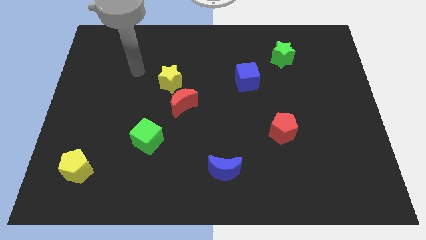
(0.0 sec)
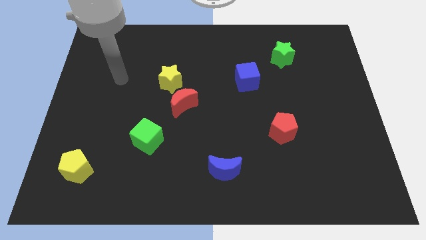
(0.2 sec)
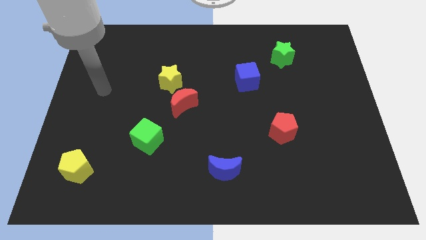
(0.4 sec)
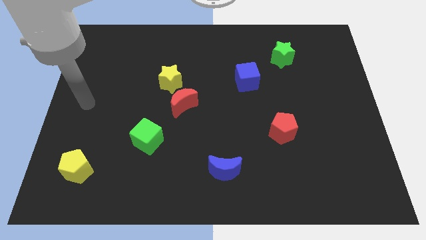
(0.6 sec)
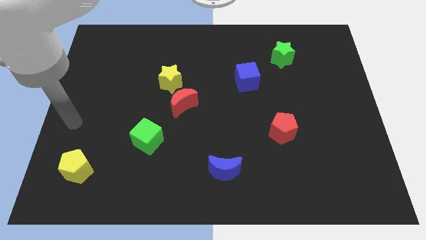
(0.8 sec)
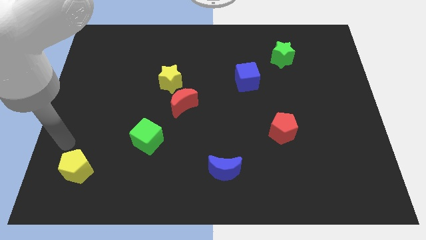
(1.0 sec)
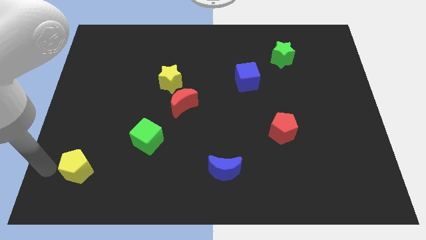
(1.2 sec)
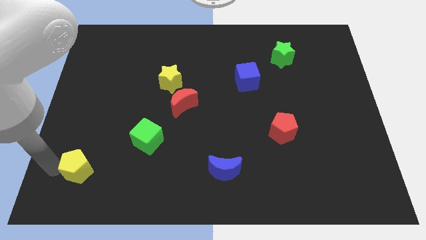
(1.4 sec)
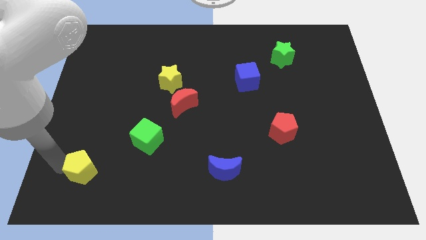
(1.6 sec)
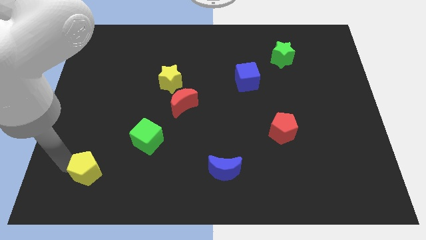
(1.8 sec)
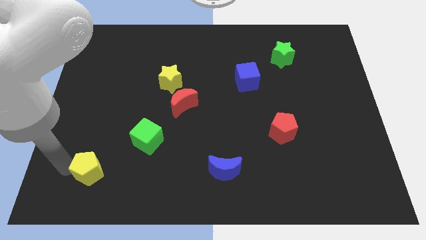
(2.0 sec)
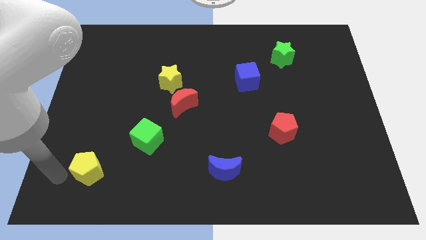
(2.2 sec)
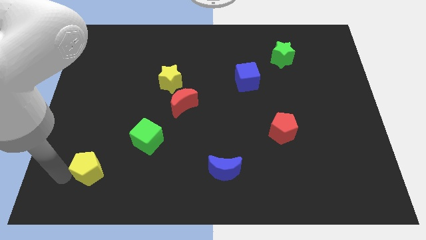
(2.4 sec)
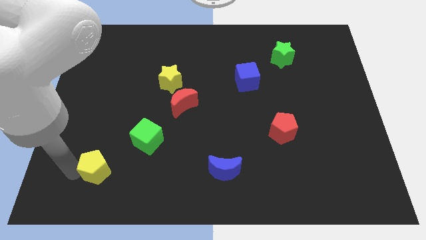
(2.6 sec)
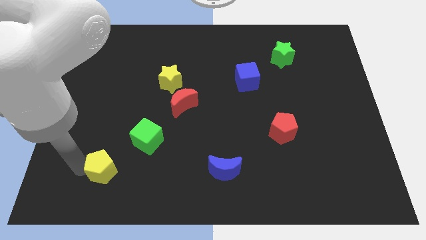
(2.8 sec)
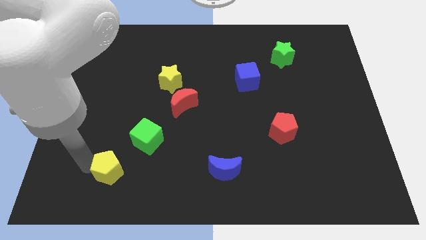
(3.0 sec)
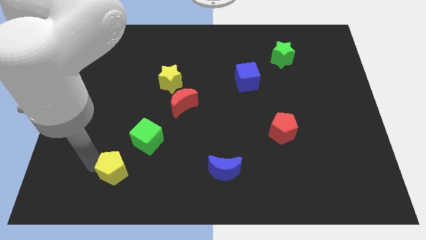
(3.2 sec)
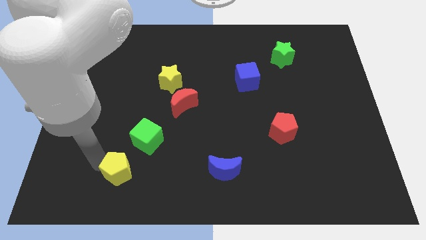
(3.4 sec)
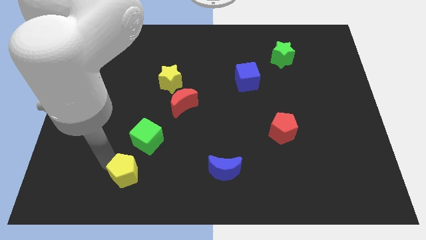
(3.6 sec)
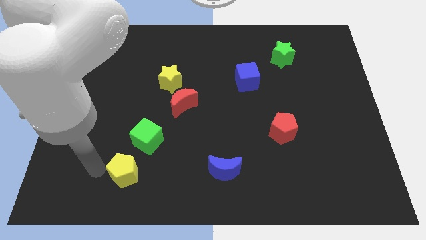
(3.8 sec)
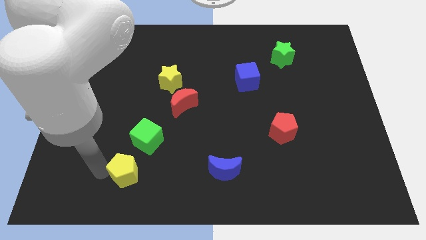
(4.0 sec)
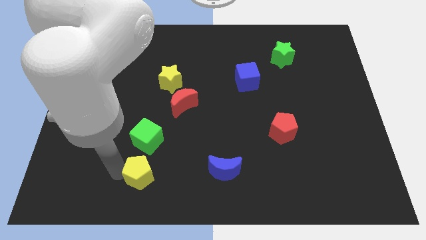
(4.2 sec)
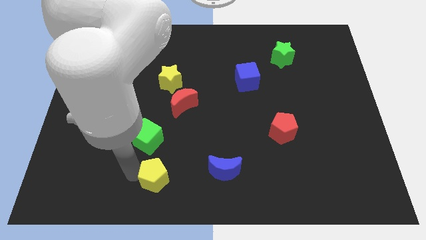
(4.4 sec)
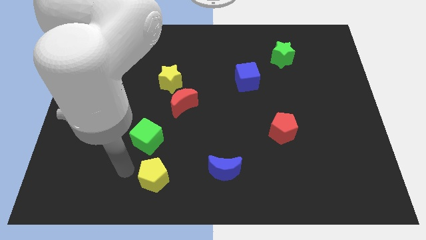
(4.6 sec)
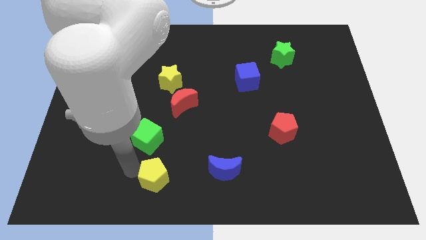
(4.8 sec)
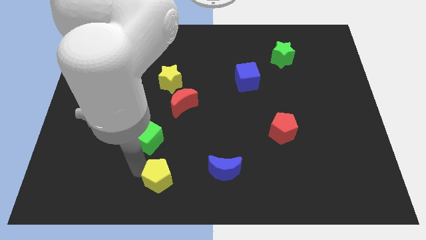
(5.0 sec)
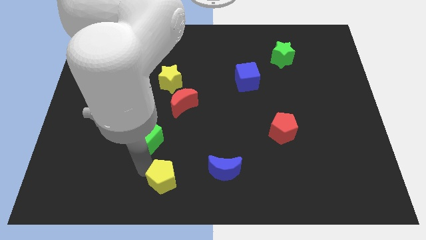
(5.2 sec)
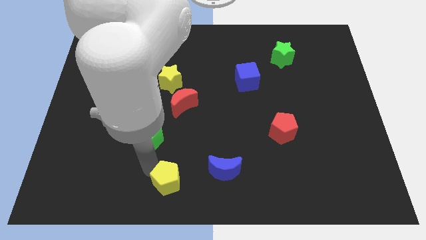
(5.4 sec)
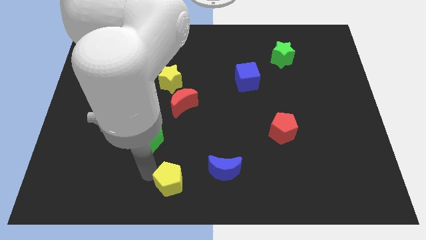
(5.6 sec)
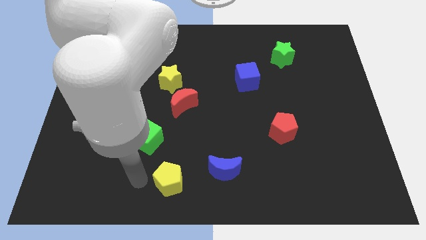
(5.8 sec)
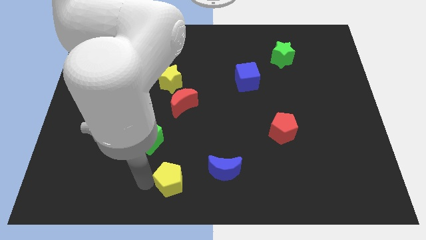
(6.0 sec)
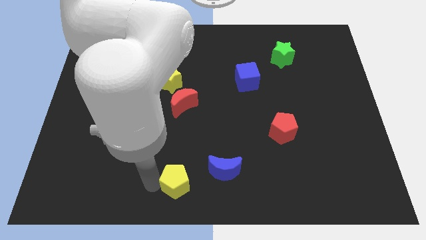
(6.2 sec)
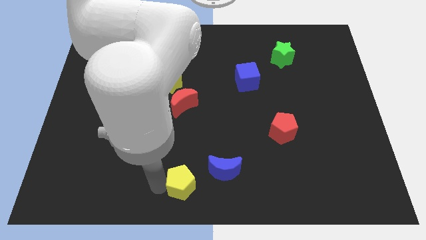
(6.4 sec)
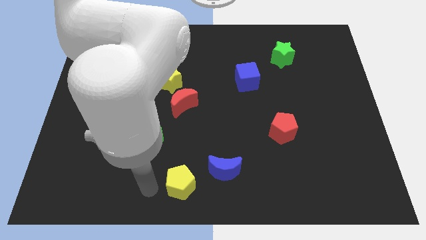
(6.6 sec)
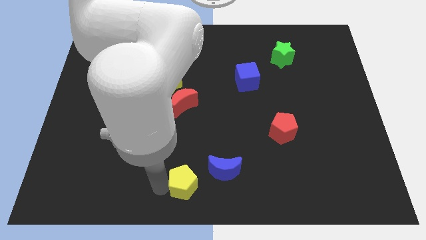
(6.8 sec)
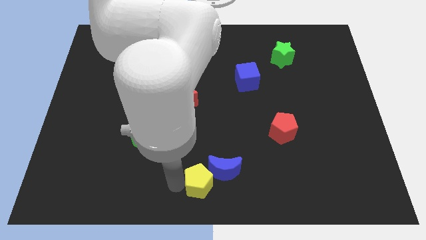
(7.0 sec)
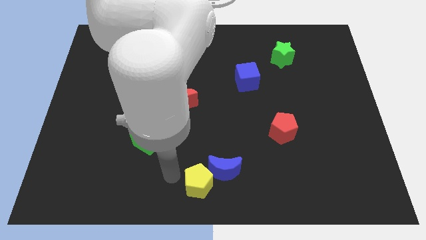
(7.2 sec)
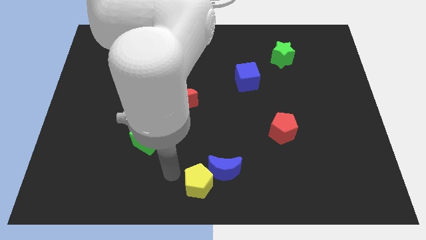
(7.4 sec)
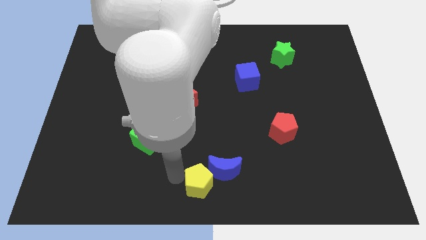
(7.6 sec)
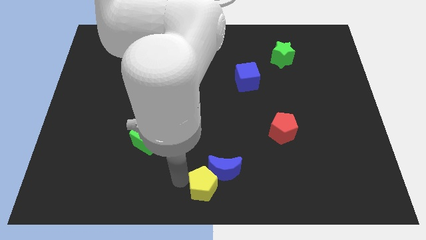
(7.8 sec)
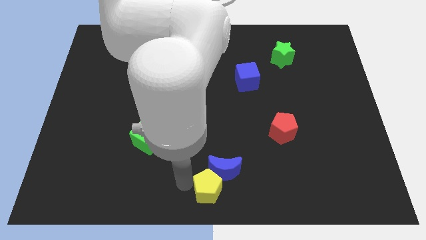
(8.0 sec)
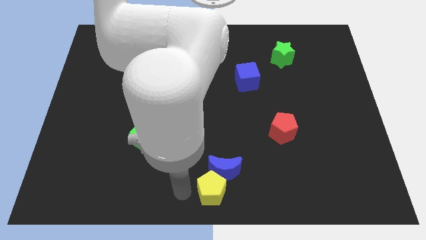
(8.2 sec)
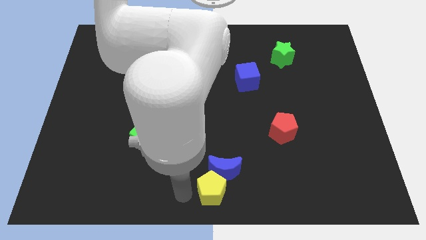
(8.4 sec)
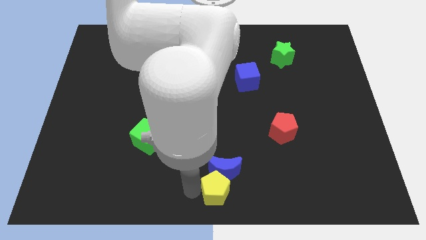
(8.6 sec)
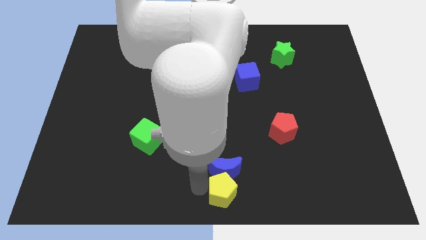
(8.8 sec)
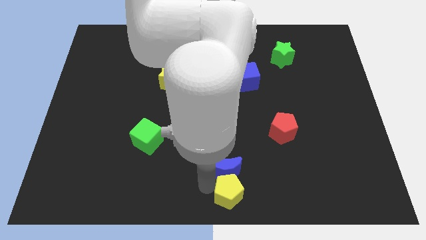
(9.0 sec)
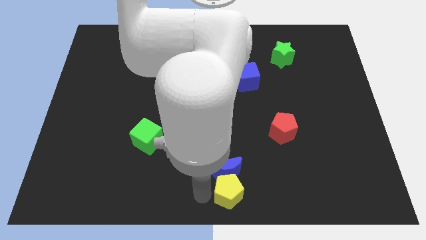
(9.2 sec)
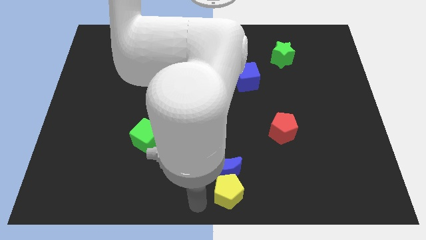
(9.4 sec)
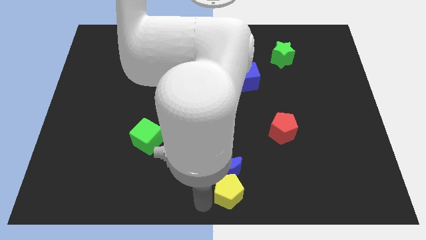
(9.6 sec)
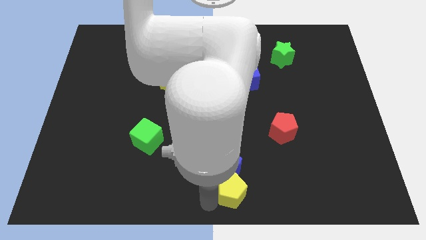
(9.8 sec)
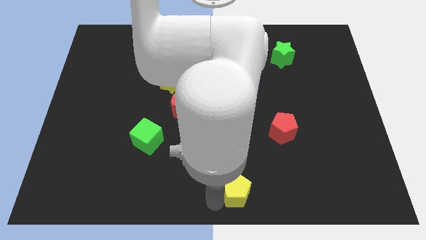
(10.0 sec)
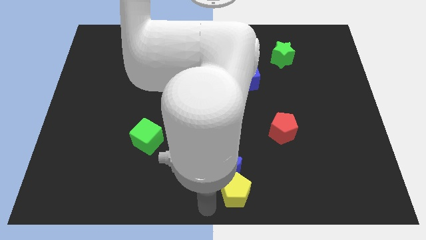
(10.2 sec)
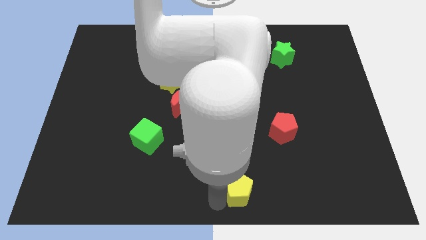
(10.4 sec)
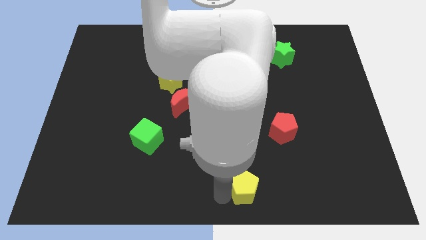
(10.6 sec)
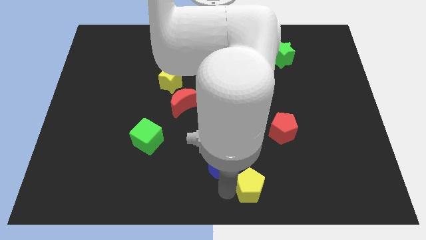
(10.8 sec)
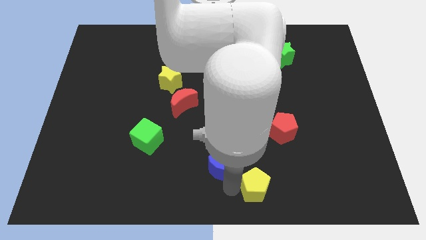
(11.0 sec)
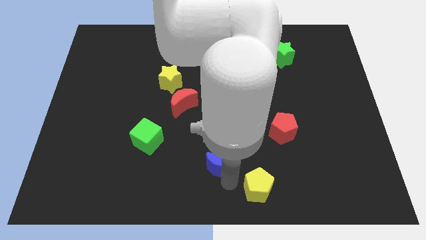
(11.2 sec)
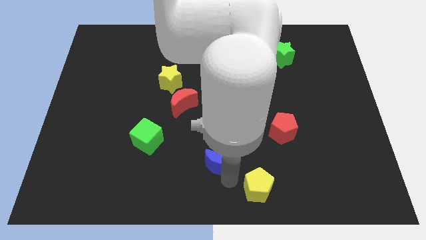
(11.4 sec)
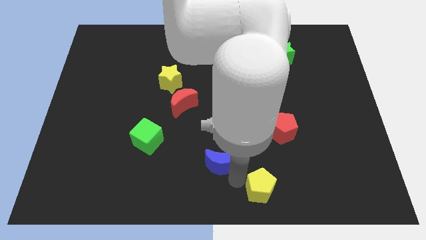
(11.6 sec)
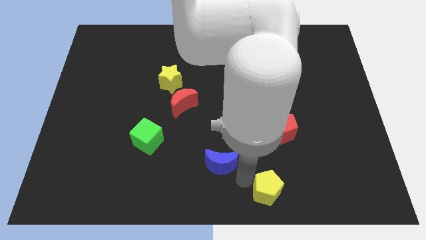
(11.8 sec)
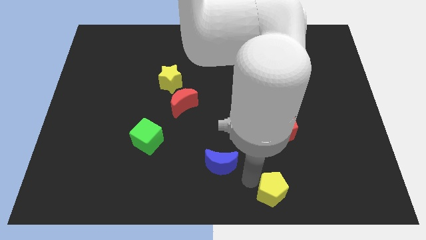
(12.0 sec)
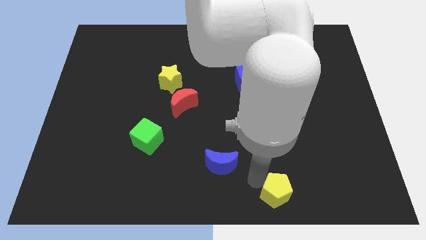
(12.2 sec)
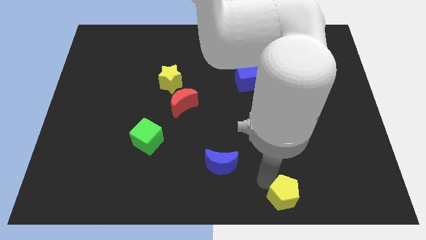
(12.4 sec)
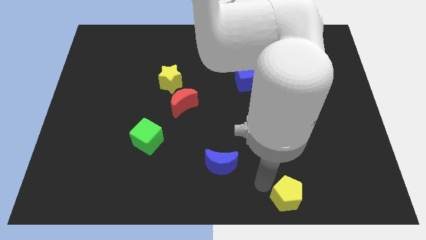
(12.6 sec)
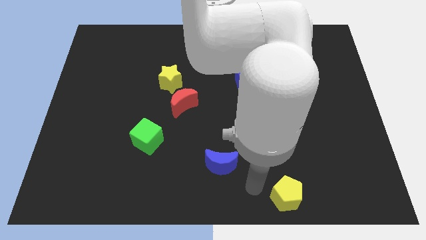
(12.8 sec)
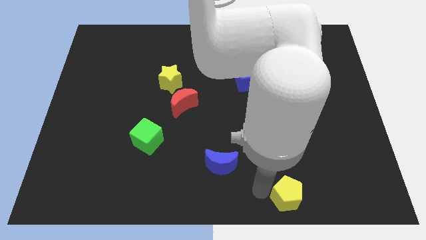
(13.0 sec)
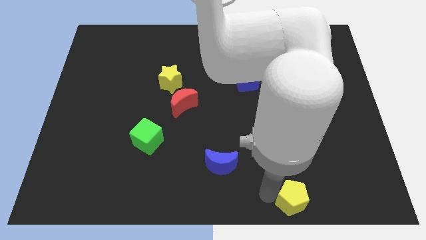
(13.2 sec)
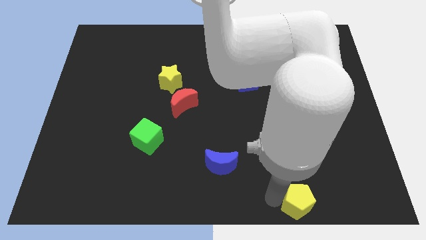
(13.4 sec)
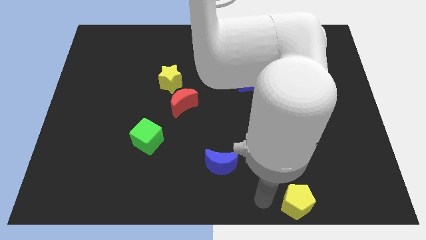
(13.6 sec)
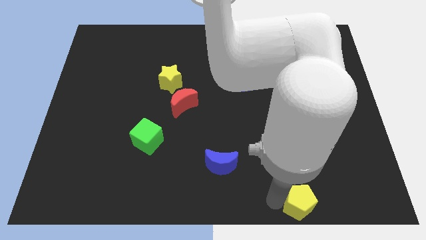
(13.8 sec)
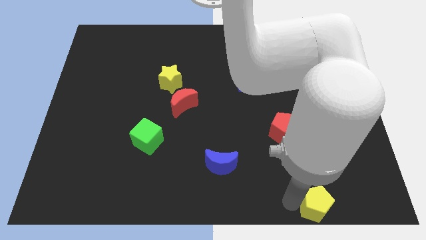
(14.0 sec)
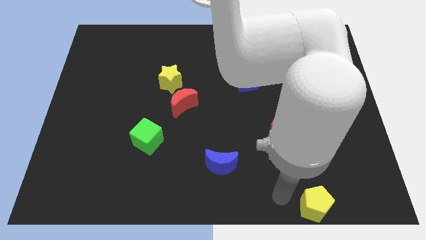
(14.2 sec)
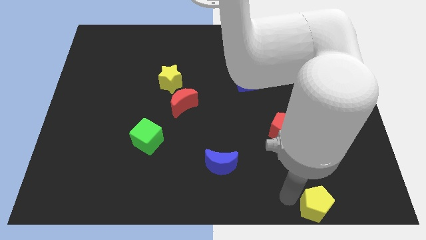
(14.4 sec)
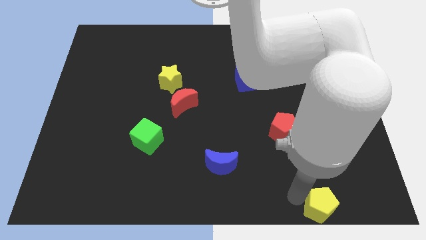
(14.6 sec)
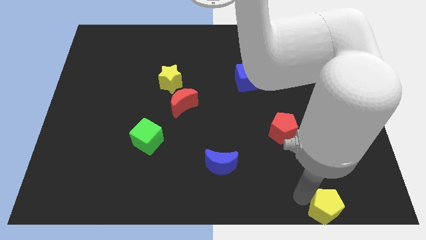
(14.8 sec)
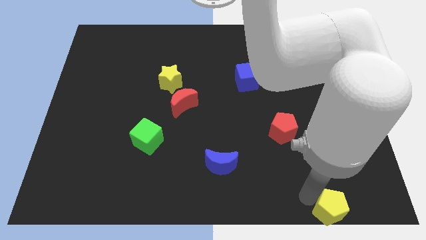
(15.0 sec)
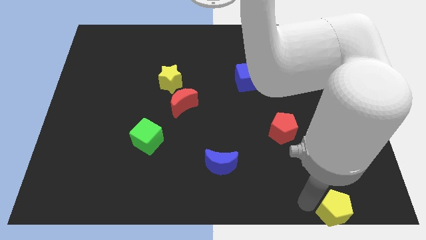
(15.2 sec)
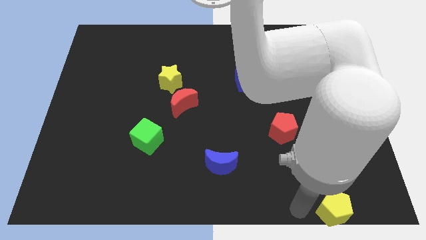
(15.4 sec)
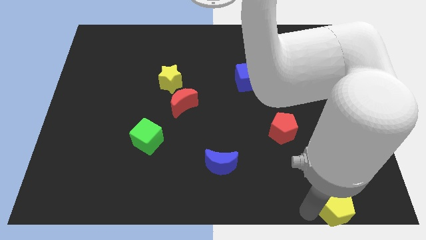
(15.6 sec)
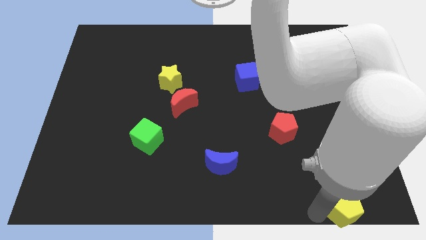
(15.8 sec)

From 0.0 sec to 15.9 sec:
push the yellow pentagon to the bottom right of the board
